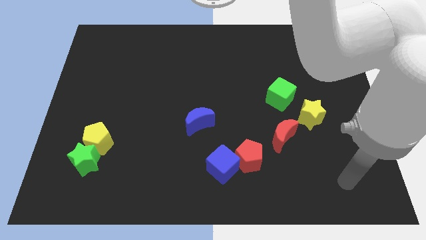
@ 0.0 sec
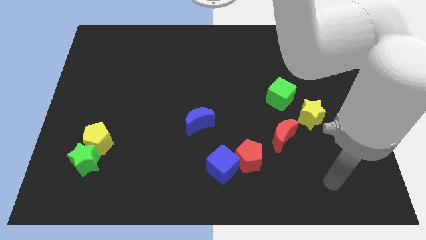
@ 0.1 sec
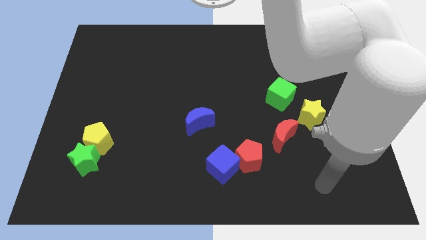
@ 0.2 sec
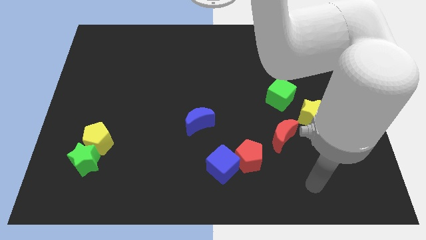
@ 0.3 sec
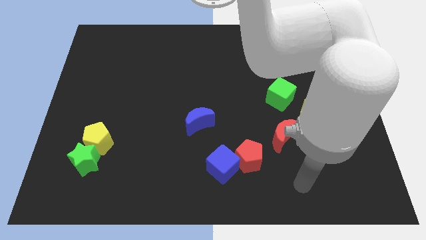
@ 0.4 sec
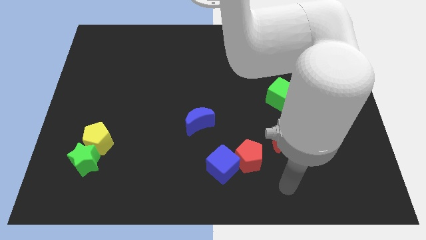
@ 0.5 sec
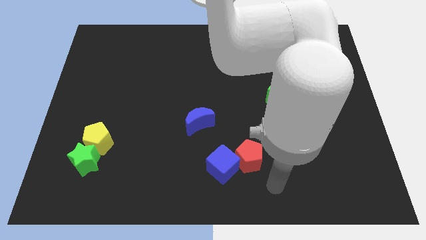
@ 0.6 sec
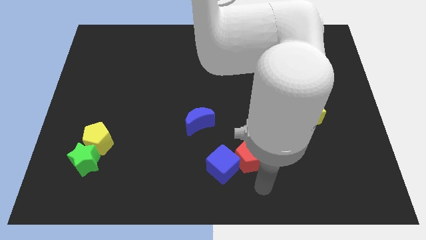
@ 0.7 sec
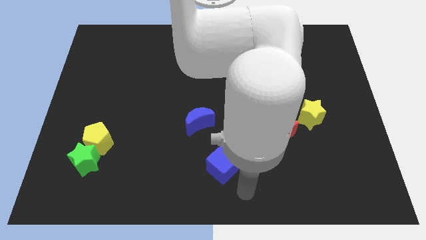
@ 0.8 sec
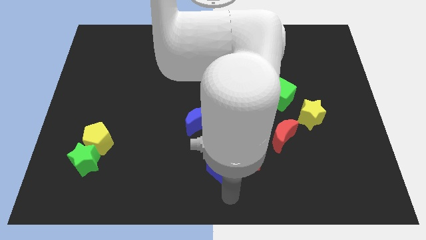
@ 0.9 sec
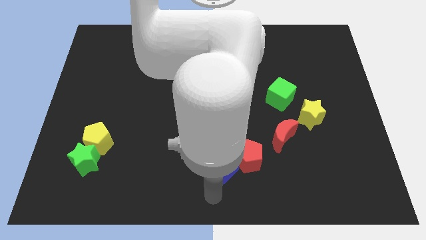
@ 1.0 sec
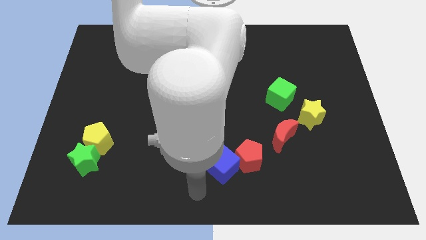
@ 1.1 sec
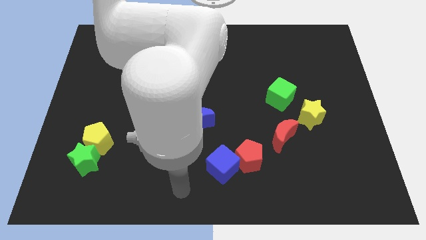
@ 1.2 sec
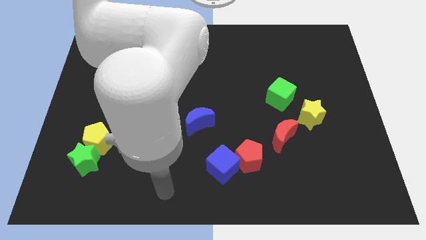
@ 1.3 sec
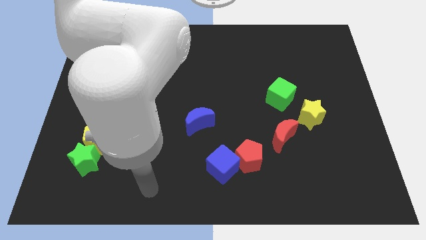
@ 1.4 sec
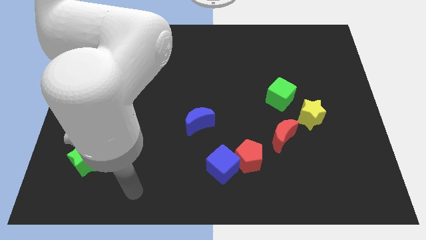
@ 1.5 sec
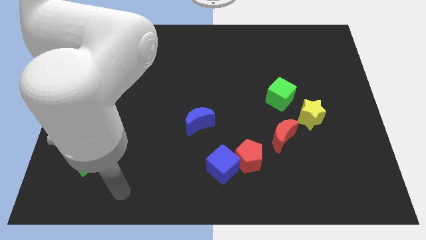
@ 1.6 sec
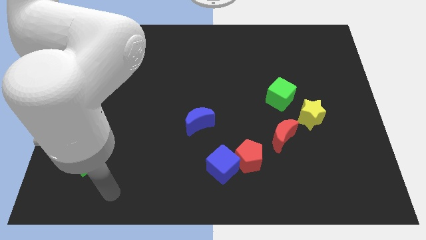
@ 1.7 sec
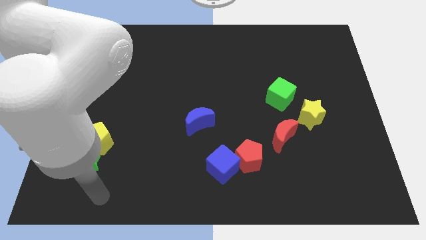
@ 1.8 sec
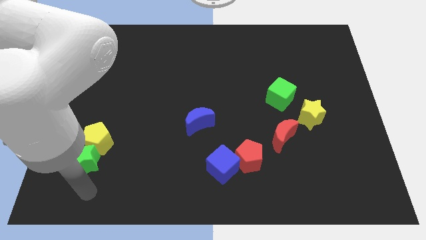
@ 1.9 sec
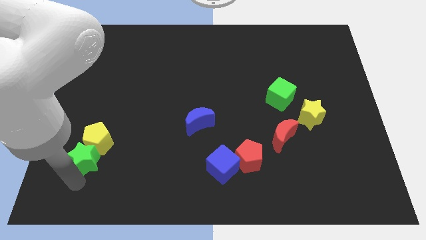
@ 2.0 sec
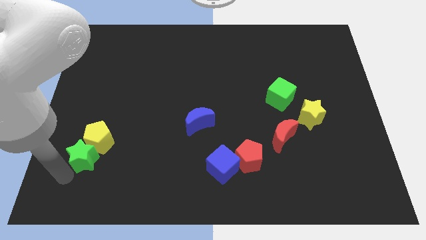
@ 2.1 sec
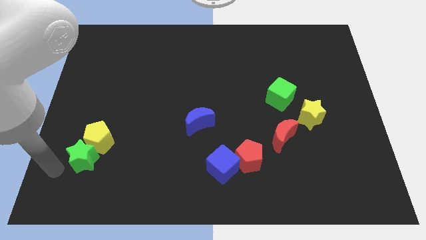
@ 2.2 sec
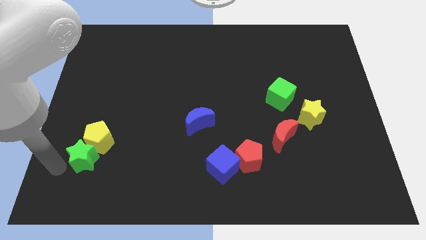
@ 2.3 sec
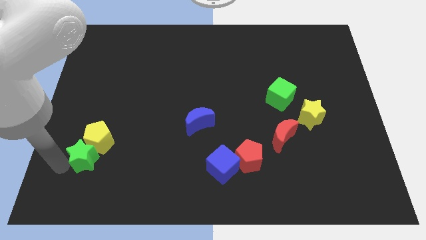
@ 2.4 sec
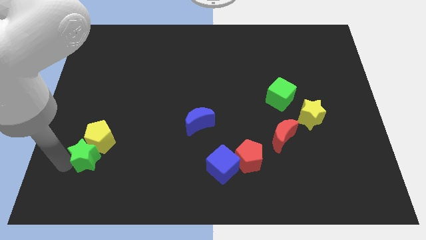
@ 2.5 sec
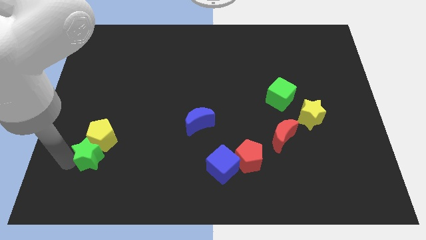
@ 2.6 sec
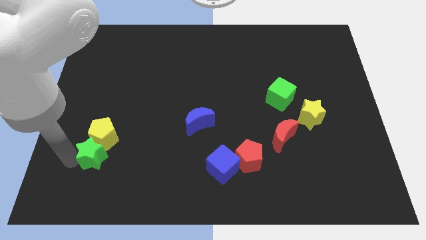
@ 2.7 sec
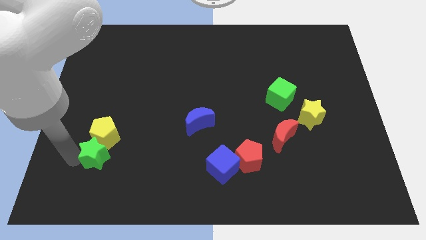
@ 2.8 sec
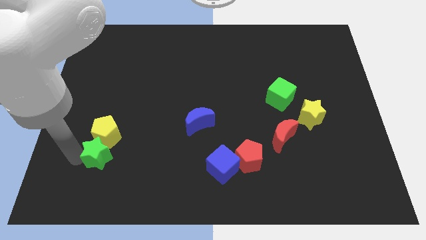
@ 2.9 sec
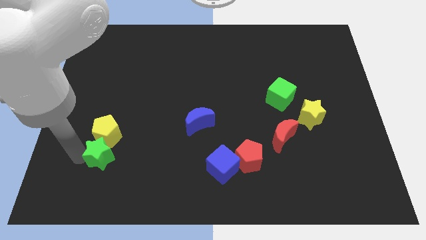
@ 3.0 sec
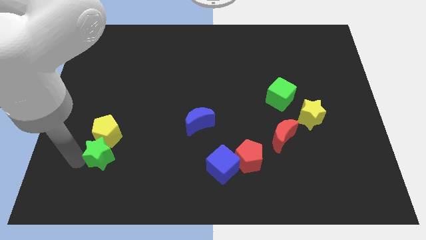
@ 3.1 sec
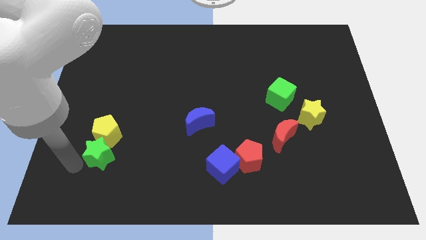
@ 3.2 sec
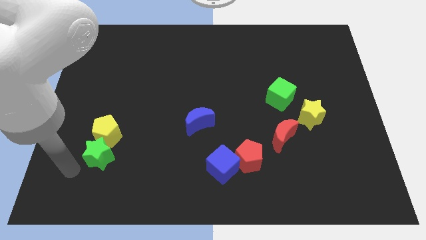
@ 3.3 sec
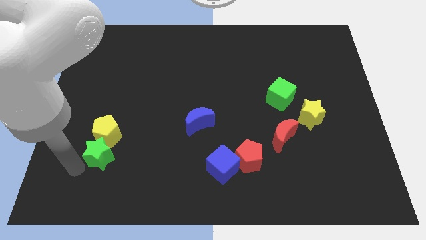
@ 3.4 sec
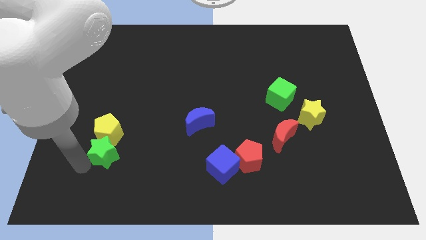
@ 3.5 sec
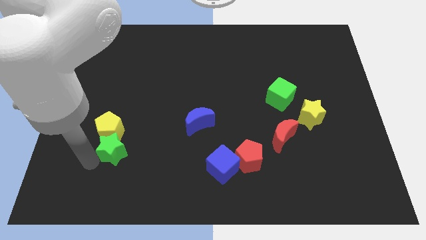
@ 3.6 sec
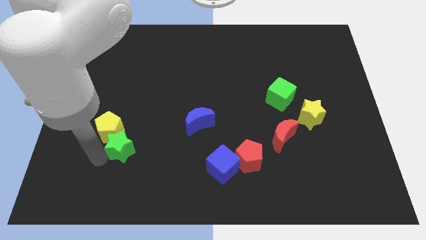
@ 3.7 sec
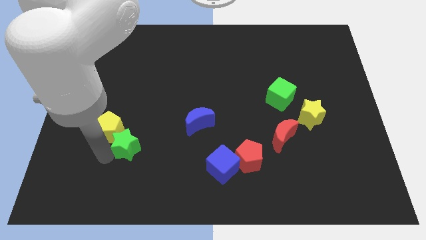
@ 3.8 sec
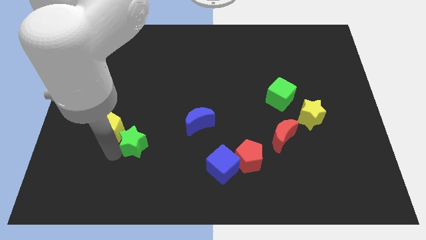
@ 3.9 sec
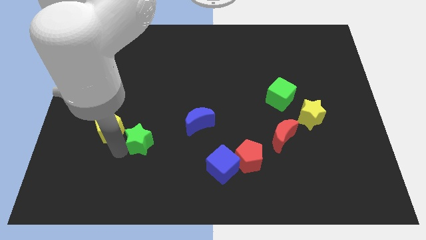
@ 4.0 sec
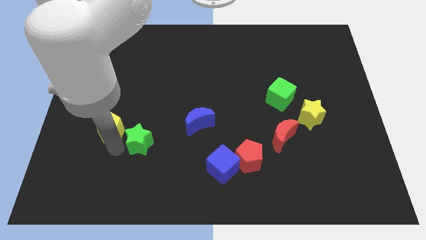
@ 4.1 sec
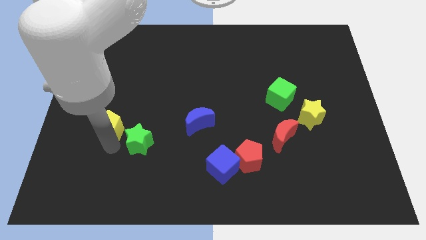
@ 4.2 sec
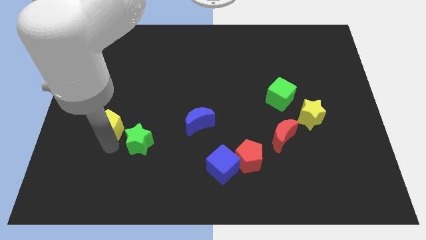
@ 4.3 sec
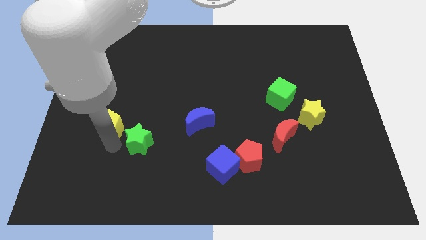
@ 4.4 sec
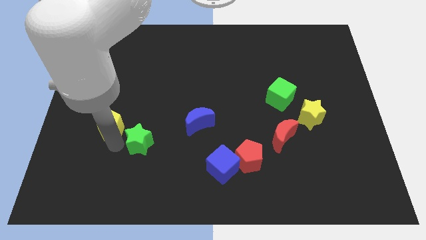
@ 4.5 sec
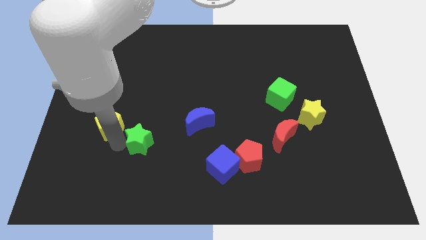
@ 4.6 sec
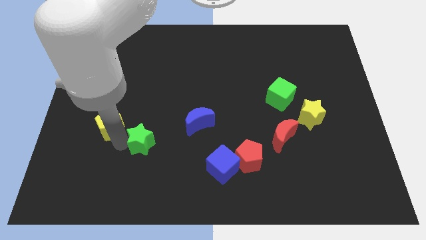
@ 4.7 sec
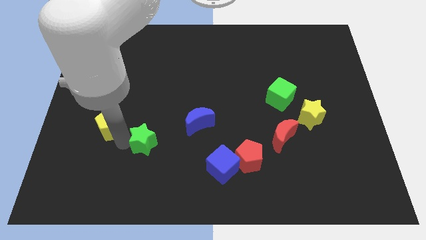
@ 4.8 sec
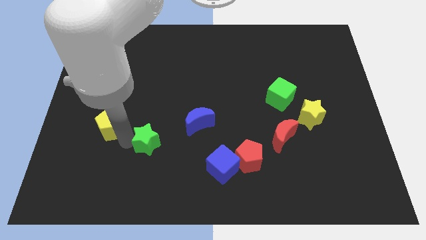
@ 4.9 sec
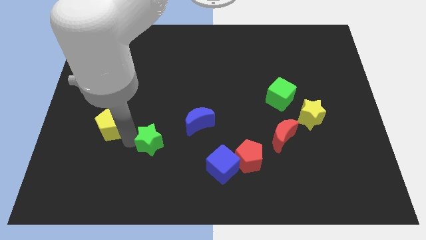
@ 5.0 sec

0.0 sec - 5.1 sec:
put the green star diagonally down and to the left of the blue moon

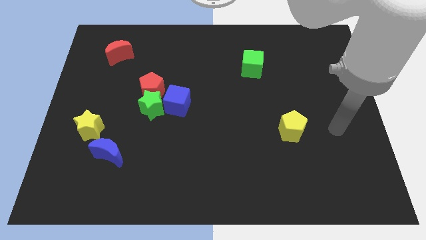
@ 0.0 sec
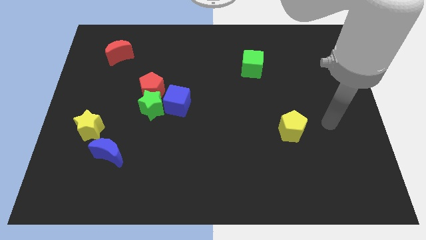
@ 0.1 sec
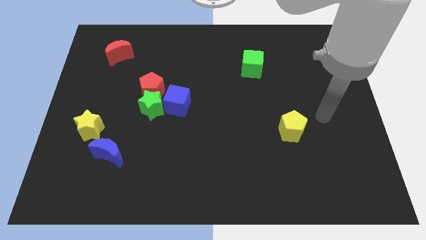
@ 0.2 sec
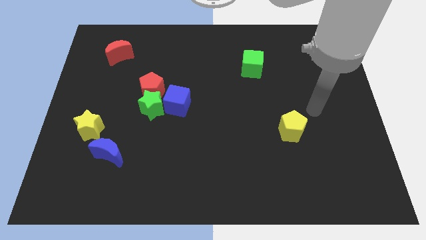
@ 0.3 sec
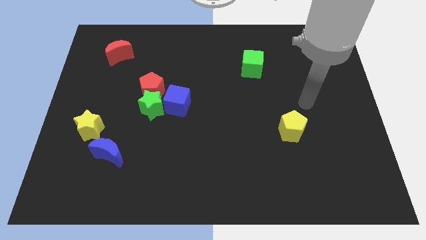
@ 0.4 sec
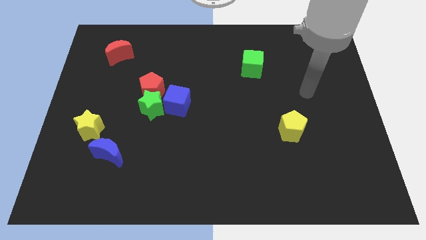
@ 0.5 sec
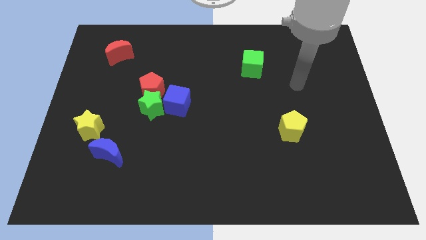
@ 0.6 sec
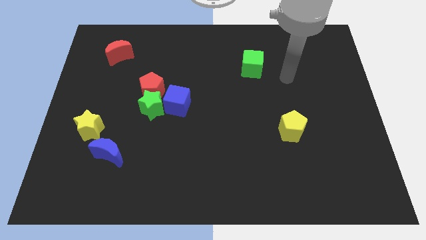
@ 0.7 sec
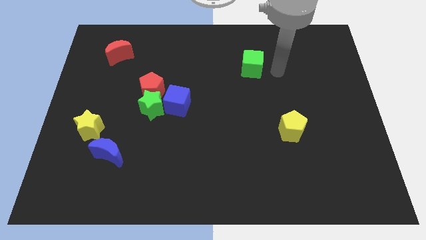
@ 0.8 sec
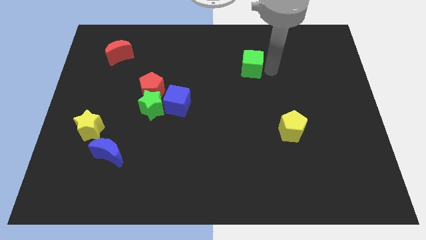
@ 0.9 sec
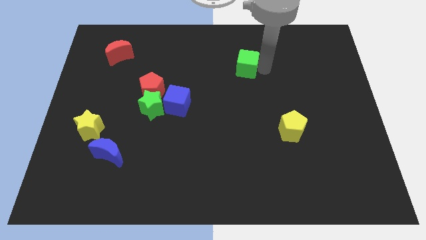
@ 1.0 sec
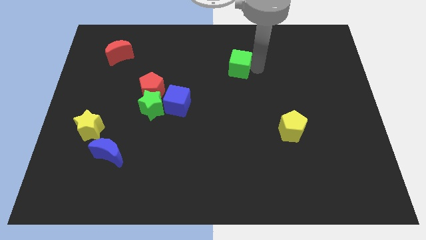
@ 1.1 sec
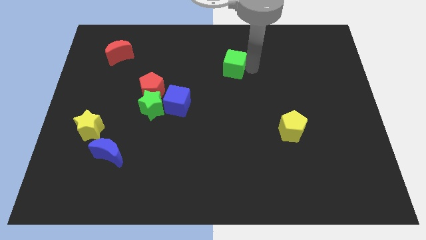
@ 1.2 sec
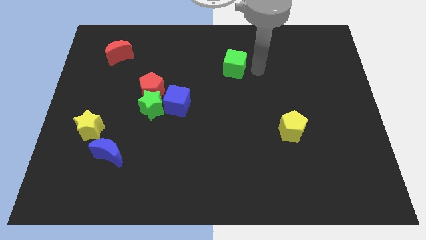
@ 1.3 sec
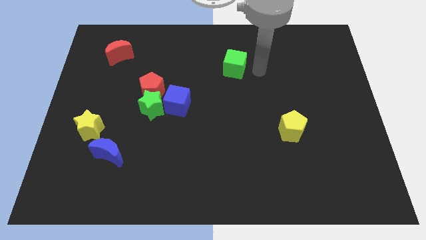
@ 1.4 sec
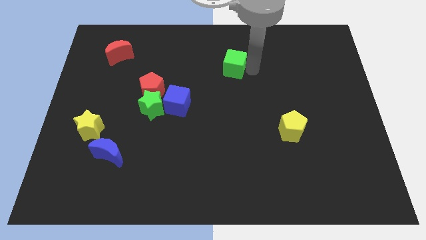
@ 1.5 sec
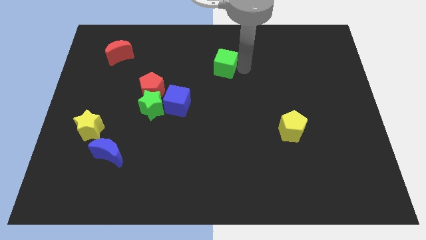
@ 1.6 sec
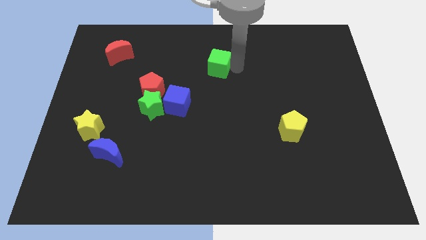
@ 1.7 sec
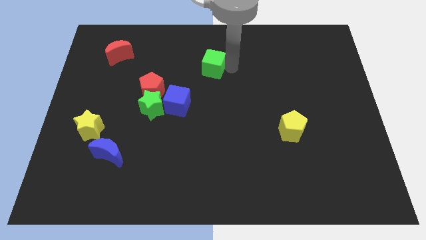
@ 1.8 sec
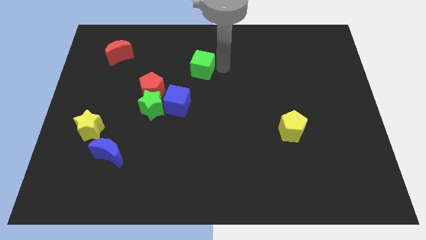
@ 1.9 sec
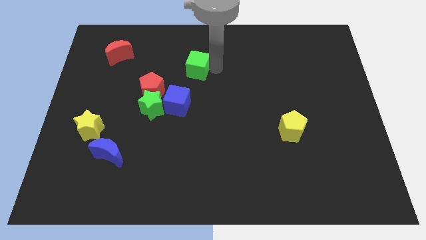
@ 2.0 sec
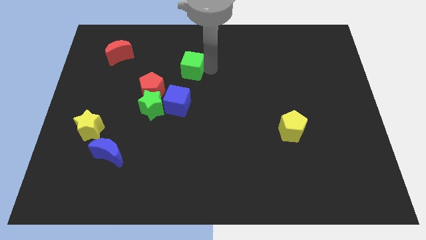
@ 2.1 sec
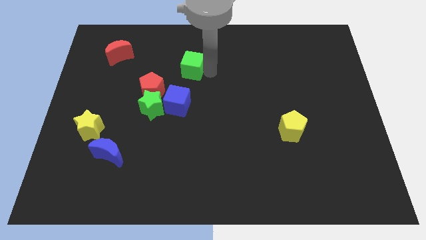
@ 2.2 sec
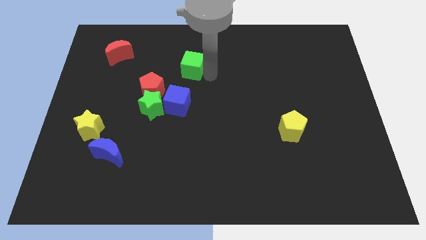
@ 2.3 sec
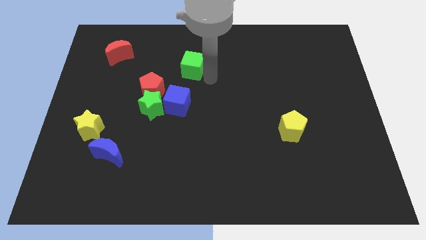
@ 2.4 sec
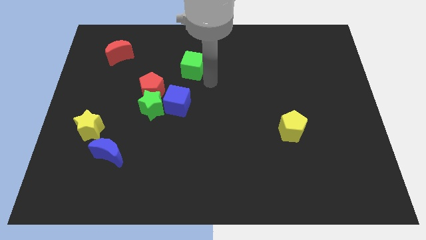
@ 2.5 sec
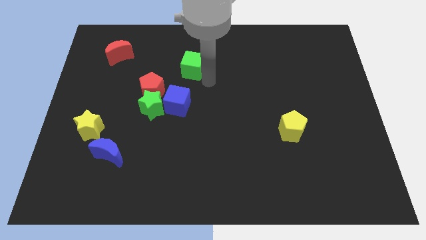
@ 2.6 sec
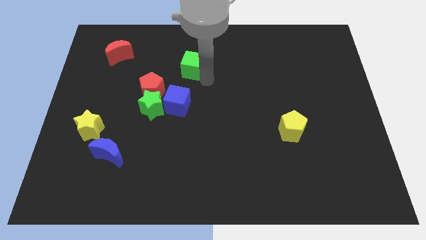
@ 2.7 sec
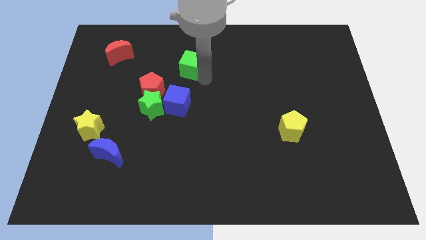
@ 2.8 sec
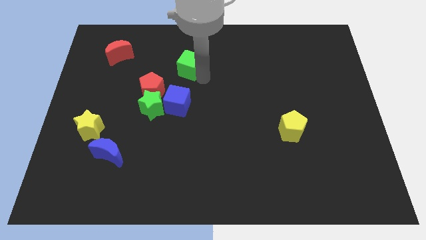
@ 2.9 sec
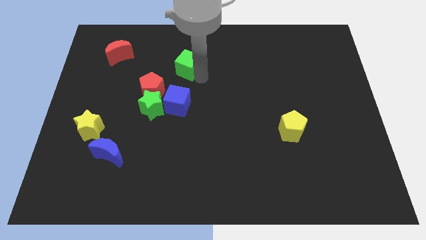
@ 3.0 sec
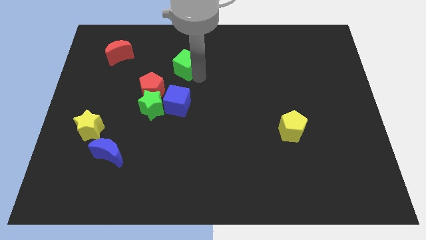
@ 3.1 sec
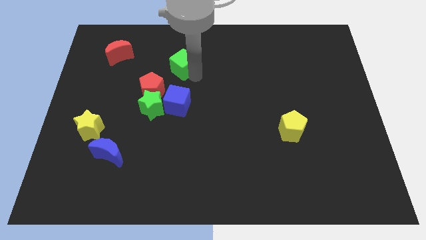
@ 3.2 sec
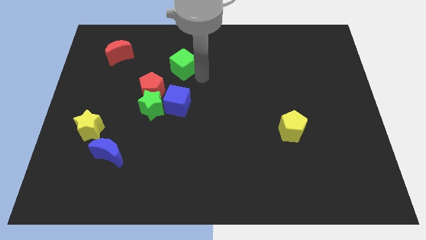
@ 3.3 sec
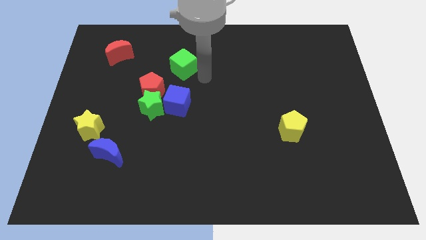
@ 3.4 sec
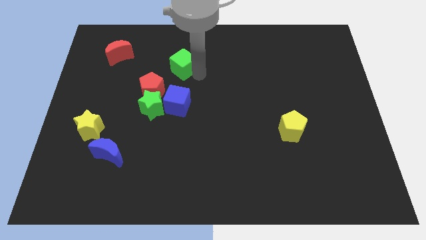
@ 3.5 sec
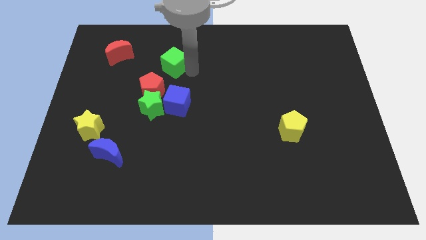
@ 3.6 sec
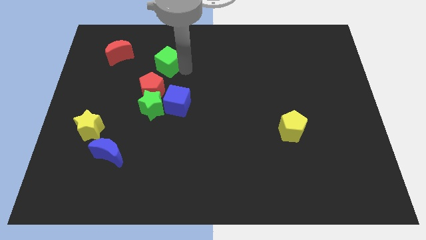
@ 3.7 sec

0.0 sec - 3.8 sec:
push the green cube just right of the red moon
